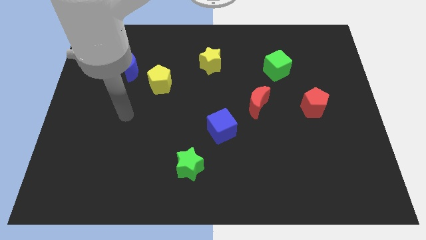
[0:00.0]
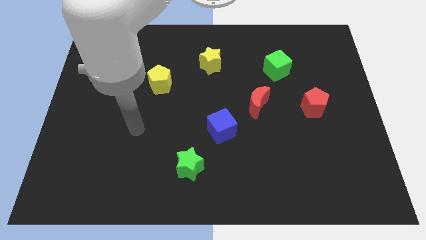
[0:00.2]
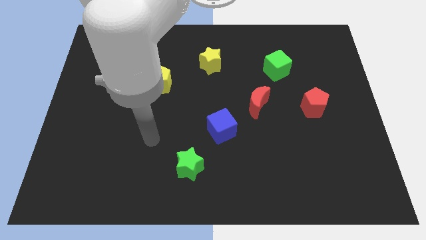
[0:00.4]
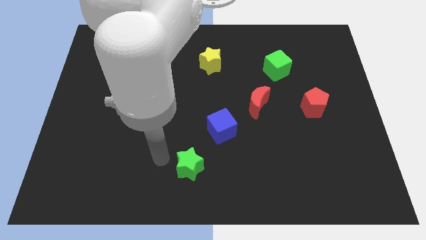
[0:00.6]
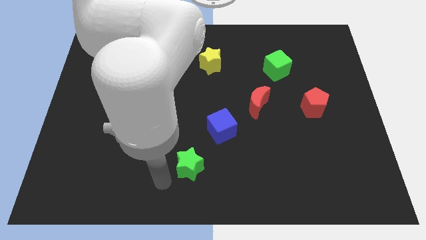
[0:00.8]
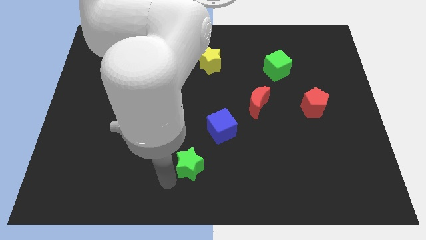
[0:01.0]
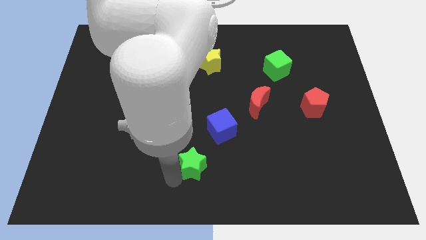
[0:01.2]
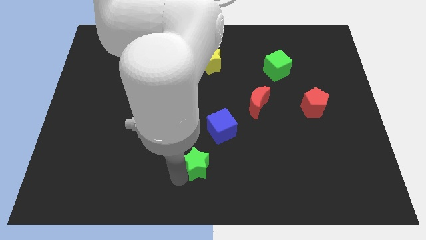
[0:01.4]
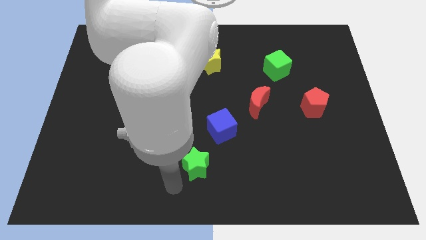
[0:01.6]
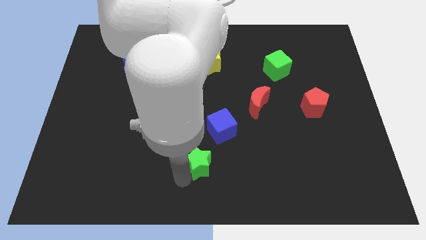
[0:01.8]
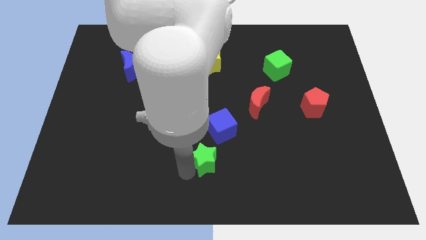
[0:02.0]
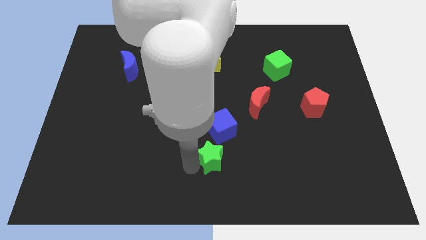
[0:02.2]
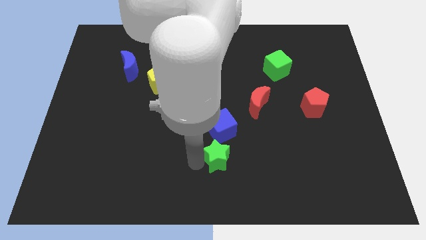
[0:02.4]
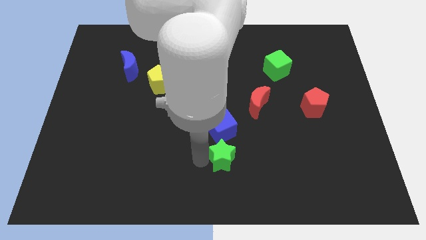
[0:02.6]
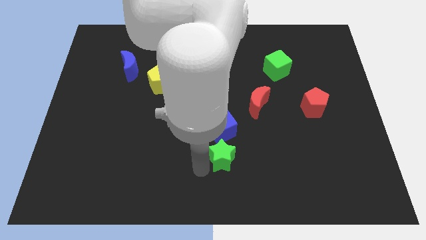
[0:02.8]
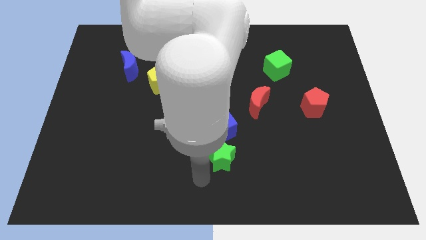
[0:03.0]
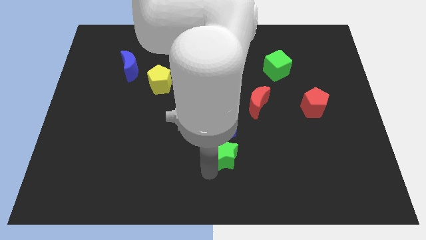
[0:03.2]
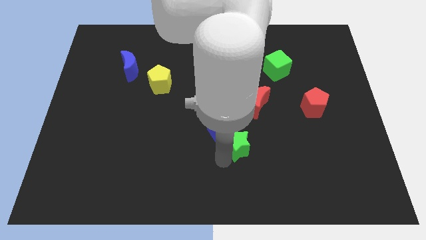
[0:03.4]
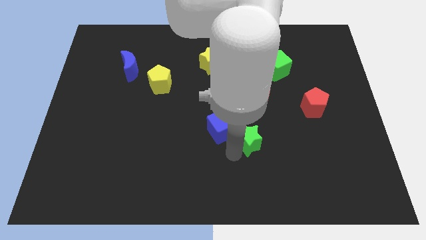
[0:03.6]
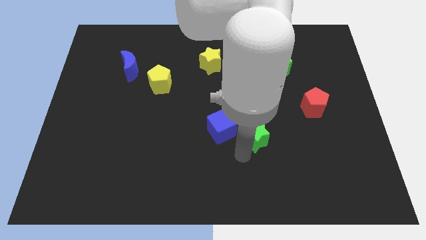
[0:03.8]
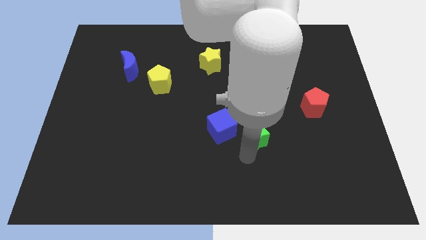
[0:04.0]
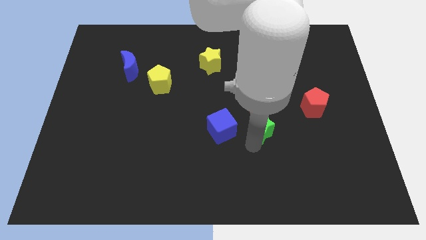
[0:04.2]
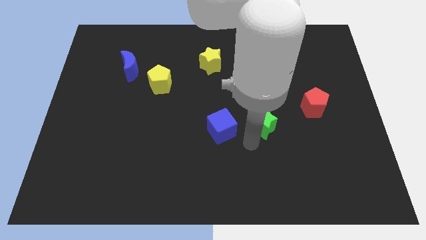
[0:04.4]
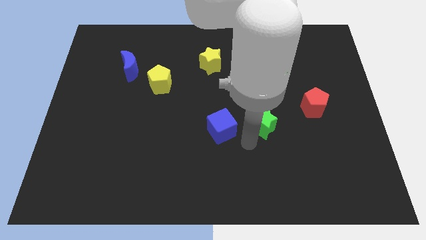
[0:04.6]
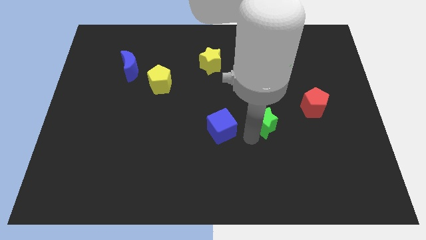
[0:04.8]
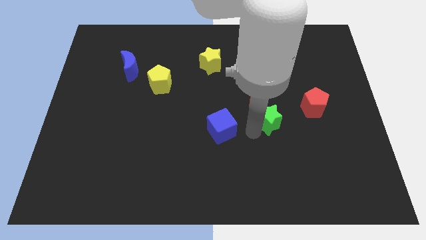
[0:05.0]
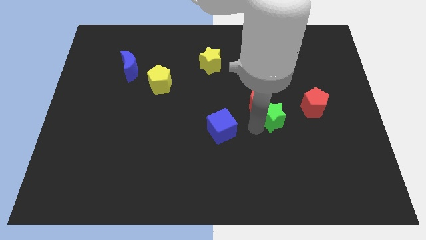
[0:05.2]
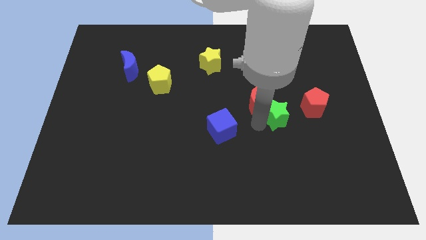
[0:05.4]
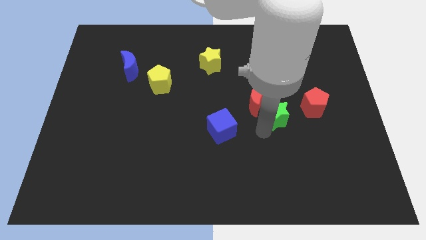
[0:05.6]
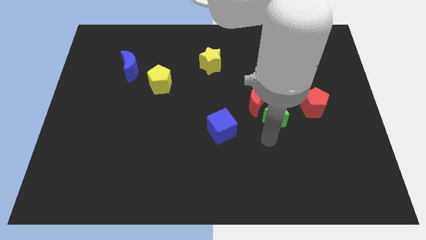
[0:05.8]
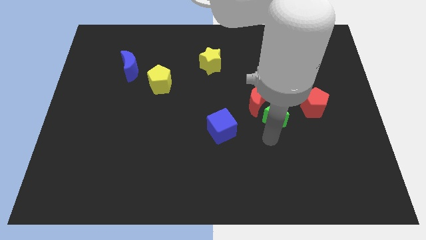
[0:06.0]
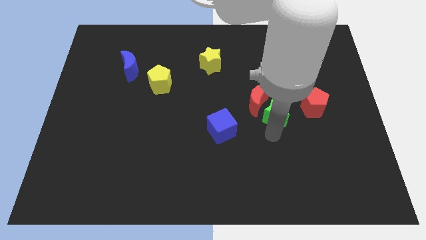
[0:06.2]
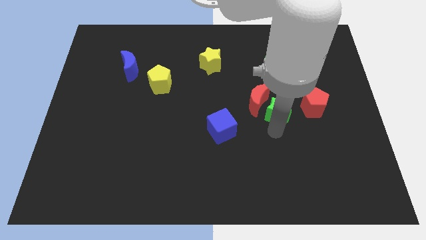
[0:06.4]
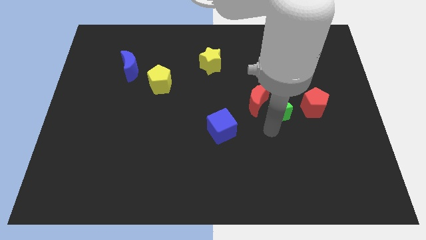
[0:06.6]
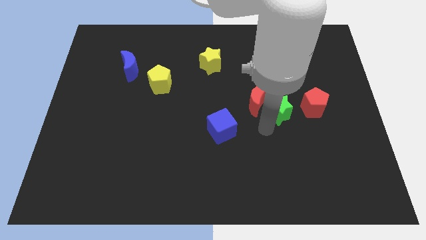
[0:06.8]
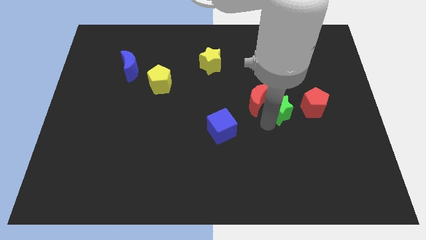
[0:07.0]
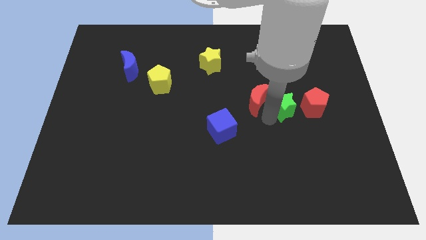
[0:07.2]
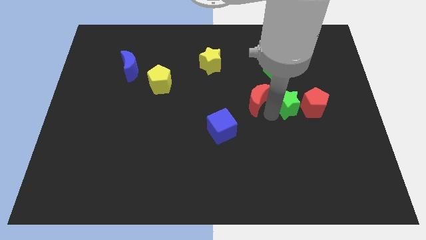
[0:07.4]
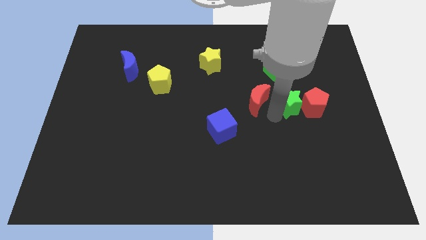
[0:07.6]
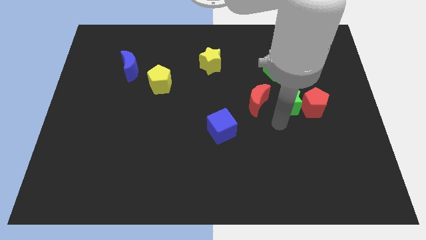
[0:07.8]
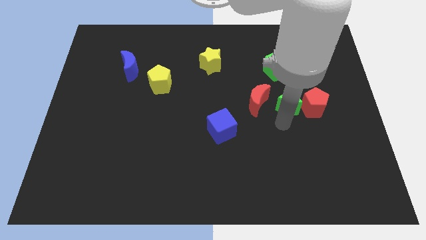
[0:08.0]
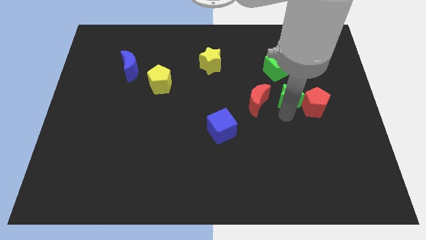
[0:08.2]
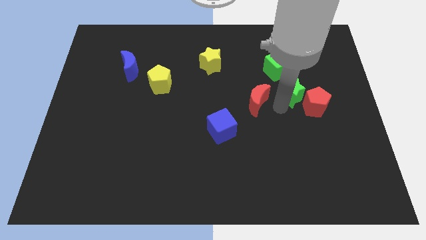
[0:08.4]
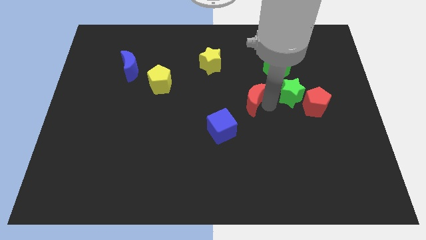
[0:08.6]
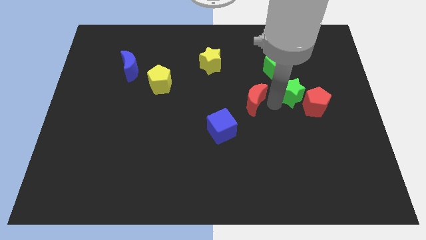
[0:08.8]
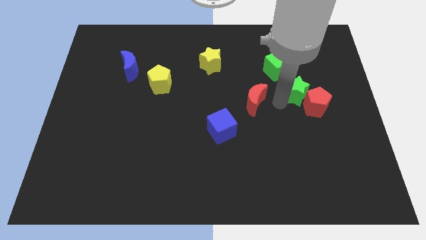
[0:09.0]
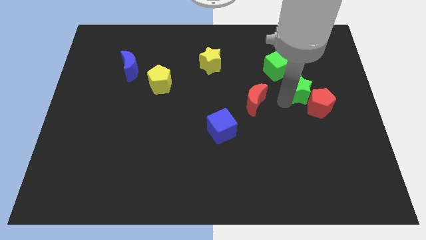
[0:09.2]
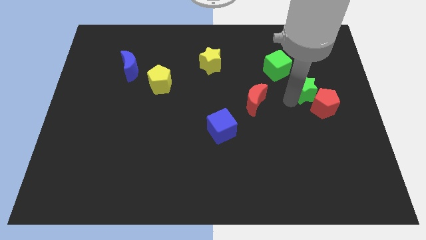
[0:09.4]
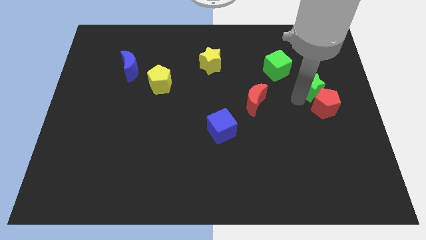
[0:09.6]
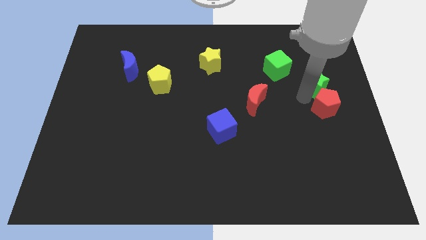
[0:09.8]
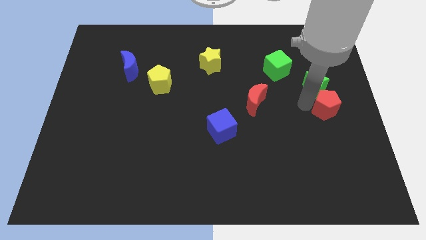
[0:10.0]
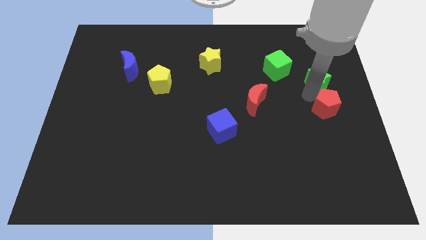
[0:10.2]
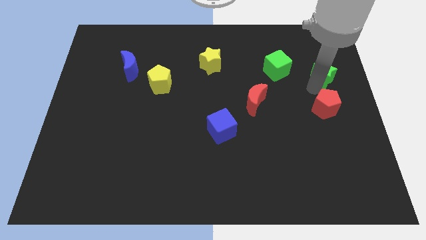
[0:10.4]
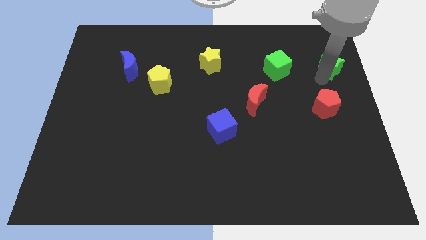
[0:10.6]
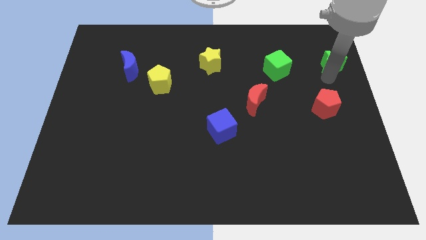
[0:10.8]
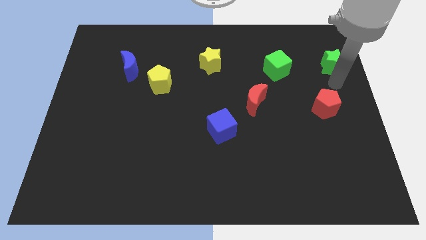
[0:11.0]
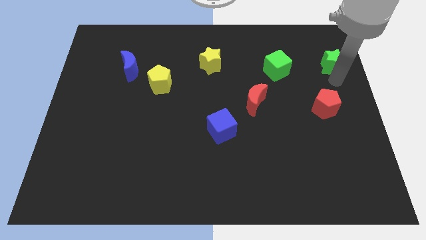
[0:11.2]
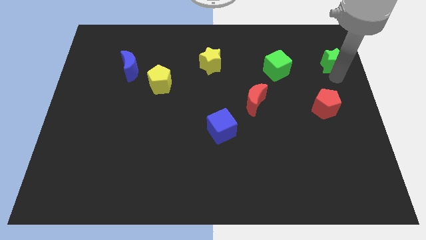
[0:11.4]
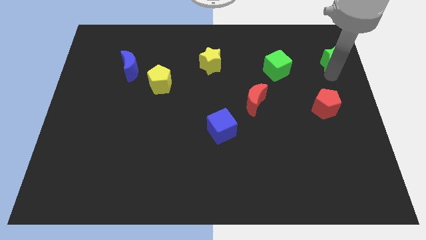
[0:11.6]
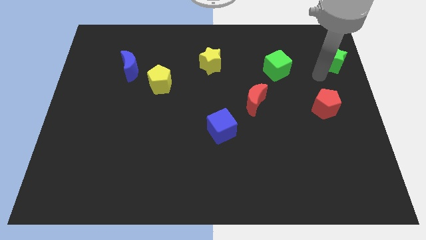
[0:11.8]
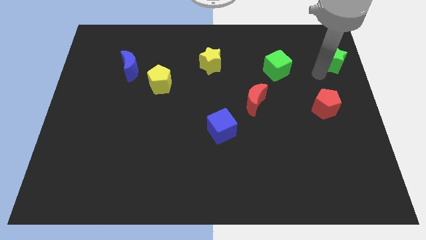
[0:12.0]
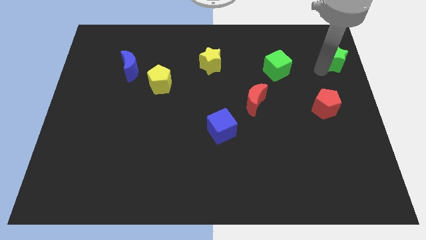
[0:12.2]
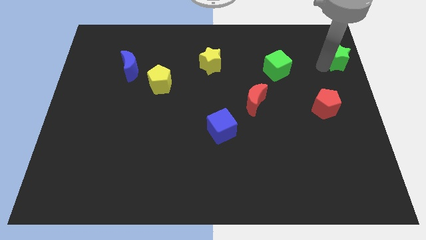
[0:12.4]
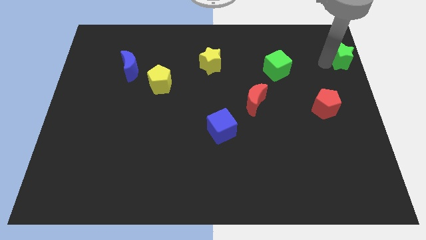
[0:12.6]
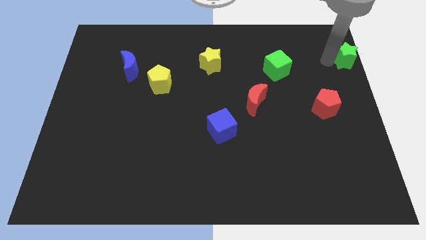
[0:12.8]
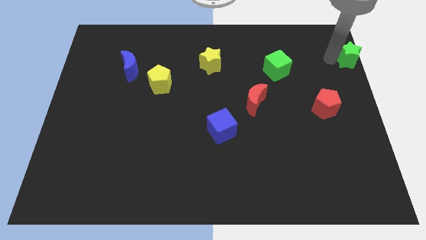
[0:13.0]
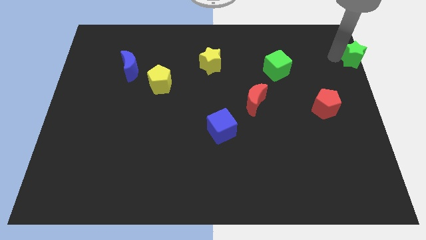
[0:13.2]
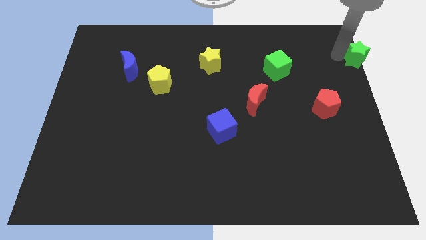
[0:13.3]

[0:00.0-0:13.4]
slide the green star to the top right corner
